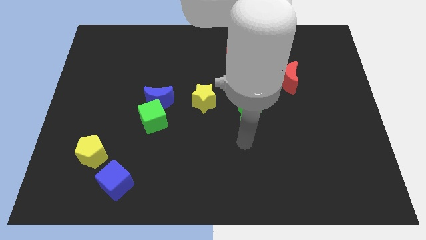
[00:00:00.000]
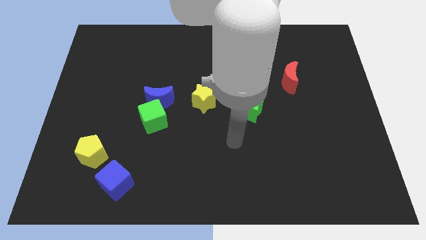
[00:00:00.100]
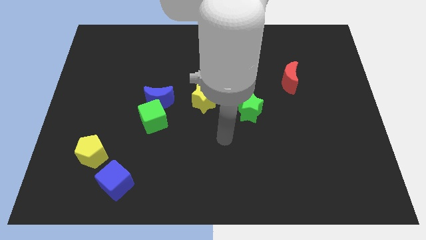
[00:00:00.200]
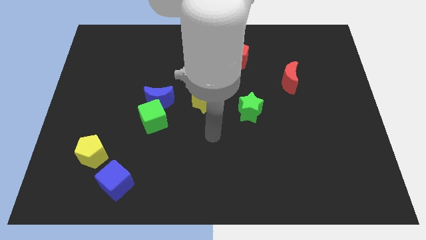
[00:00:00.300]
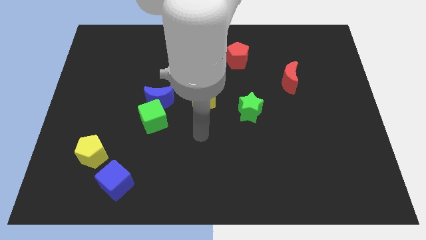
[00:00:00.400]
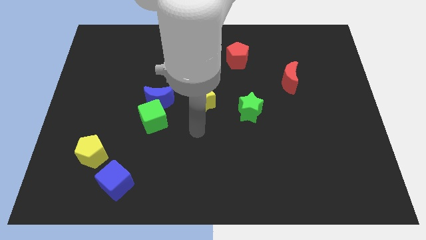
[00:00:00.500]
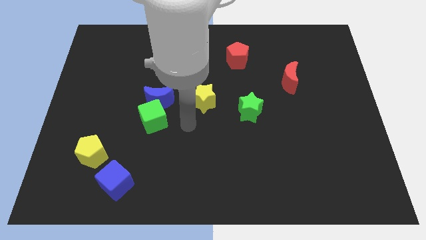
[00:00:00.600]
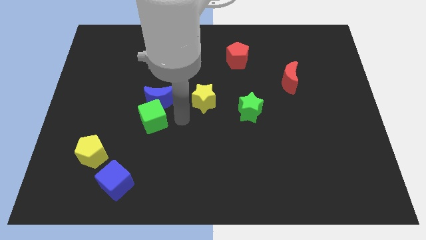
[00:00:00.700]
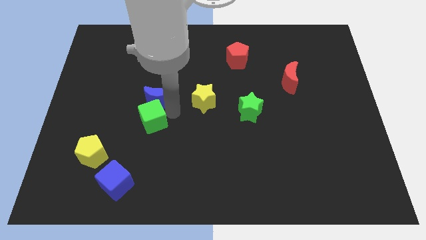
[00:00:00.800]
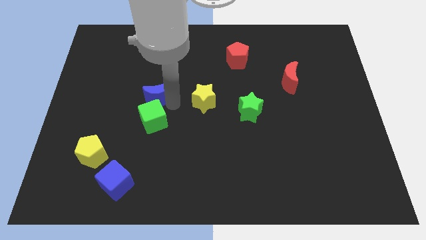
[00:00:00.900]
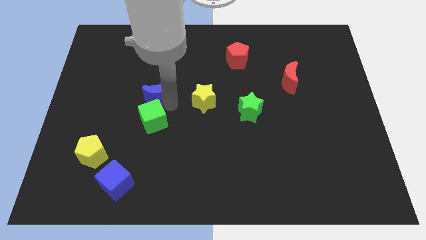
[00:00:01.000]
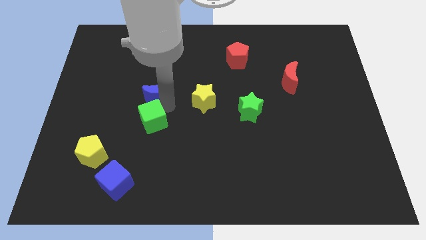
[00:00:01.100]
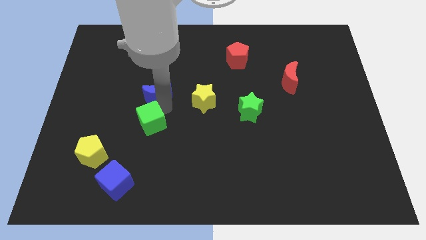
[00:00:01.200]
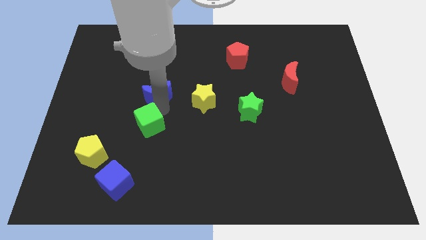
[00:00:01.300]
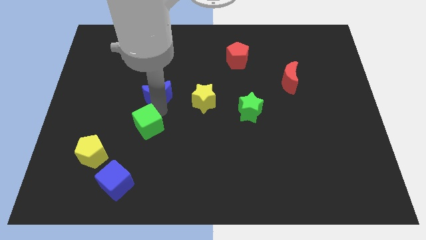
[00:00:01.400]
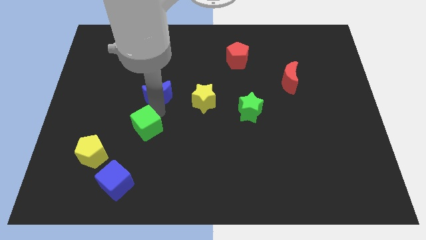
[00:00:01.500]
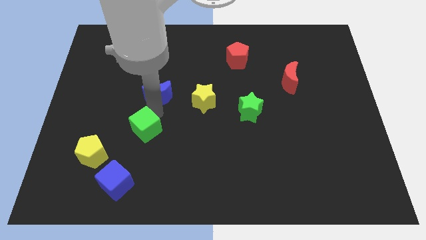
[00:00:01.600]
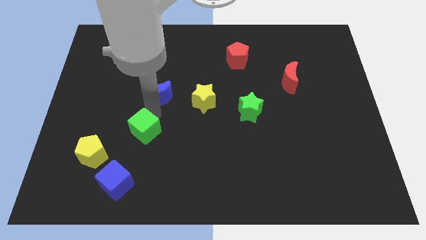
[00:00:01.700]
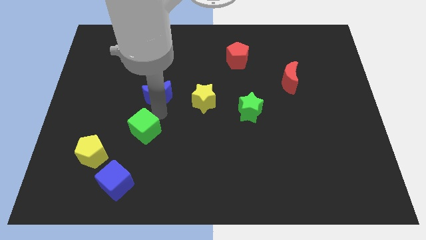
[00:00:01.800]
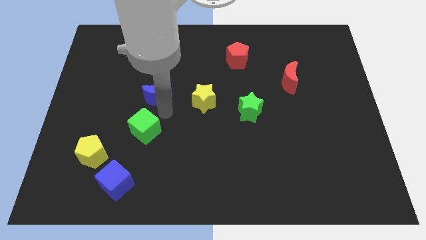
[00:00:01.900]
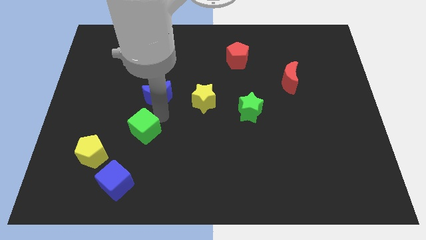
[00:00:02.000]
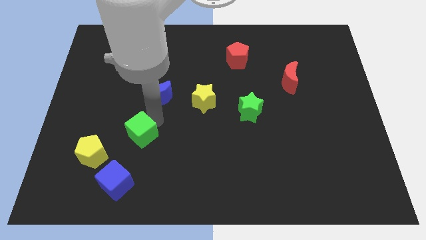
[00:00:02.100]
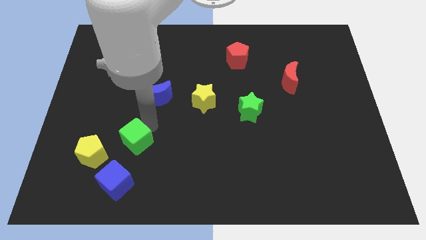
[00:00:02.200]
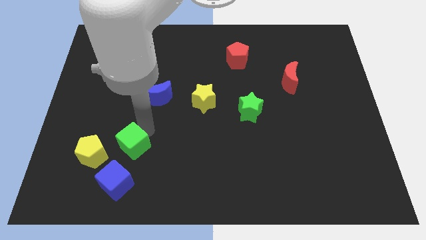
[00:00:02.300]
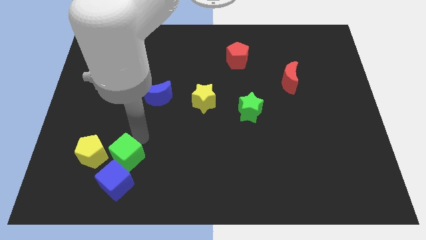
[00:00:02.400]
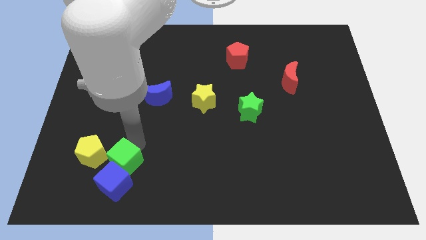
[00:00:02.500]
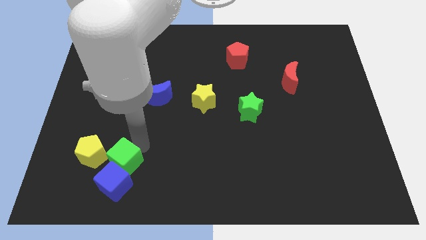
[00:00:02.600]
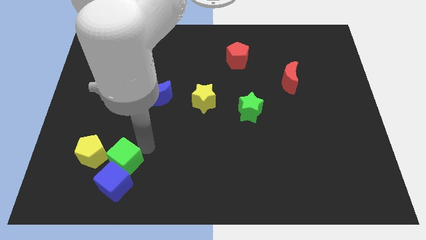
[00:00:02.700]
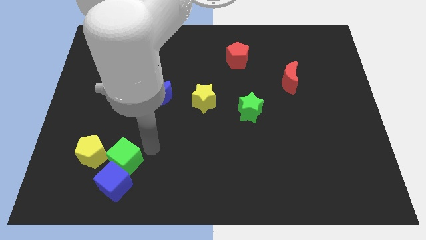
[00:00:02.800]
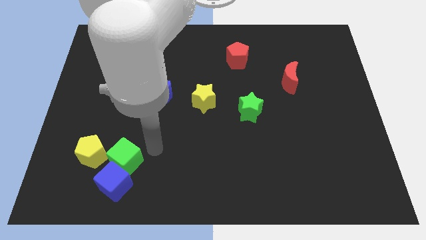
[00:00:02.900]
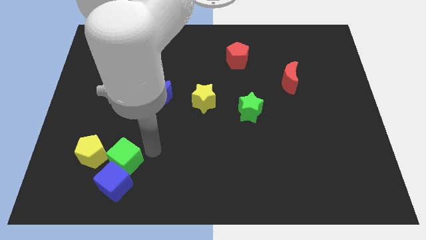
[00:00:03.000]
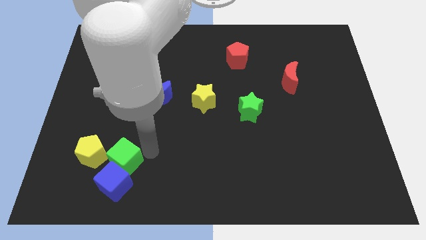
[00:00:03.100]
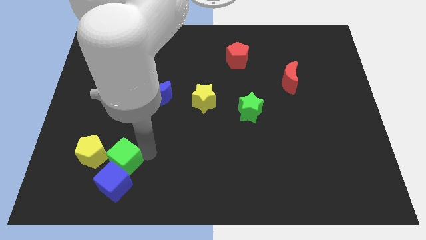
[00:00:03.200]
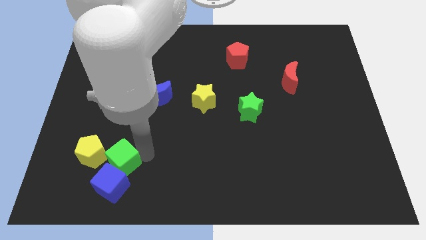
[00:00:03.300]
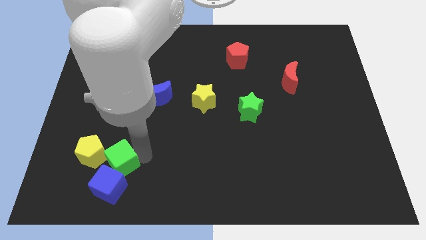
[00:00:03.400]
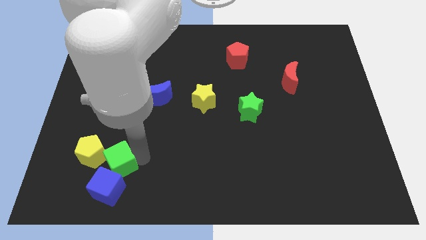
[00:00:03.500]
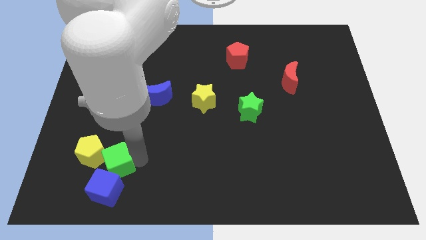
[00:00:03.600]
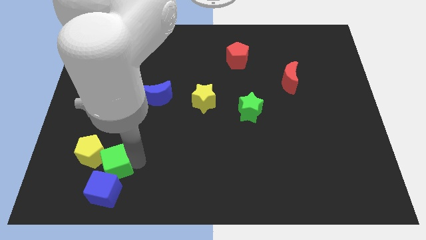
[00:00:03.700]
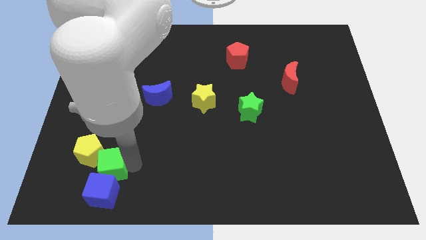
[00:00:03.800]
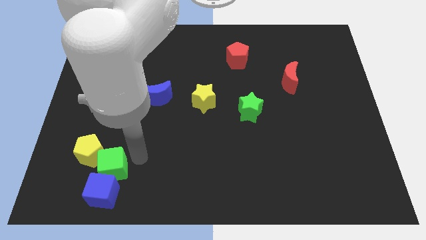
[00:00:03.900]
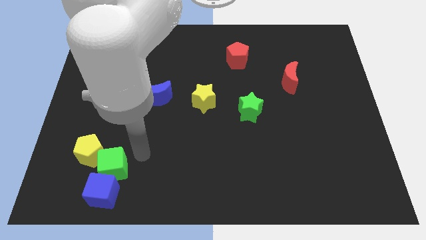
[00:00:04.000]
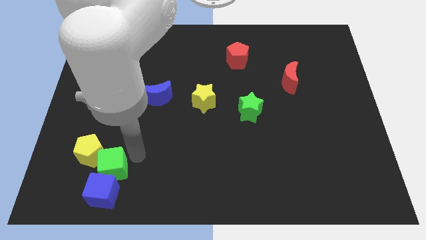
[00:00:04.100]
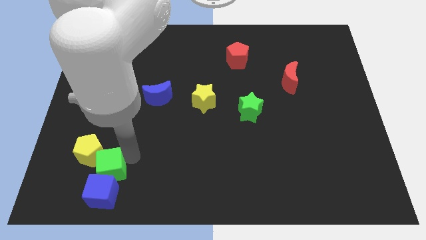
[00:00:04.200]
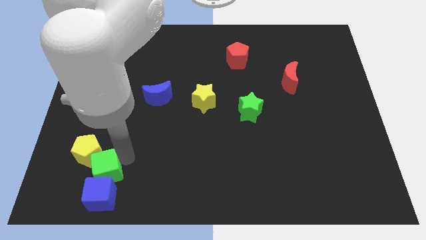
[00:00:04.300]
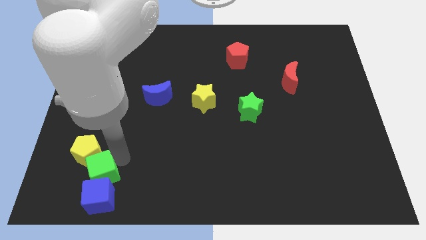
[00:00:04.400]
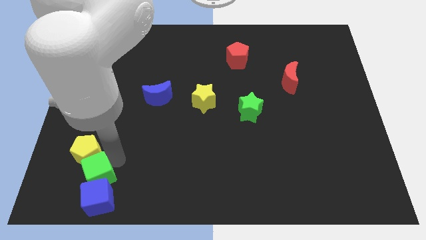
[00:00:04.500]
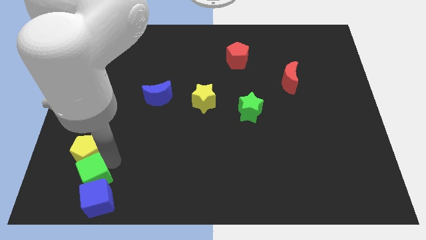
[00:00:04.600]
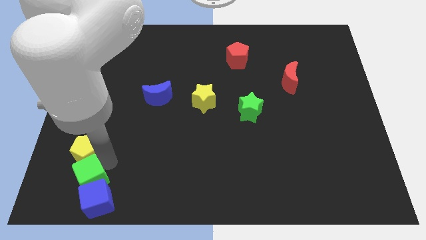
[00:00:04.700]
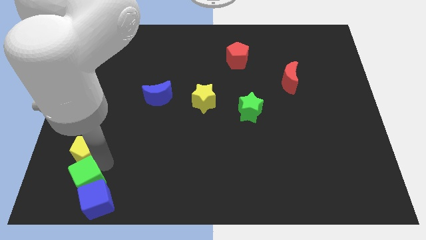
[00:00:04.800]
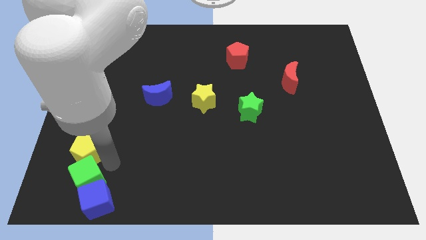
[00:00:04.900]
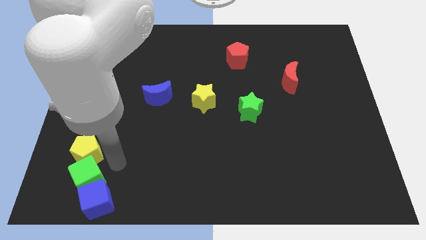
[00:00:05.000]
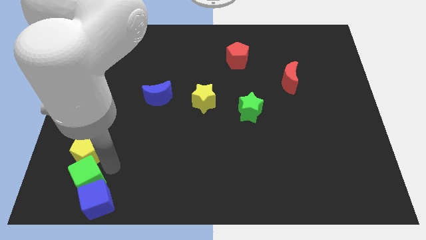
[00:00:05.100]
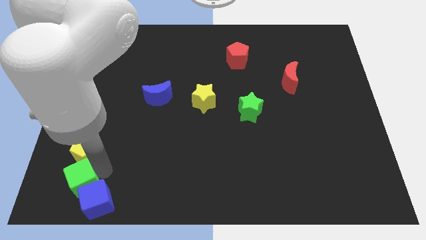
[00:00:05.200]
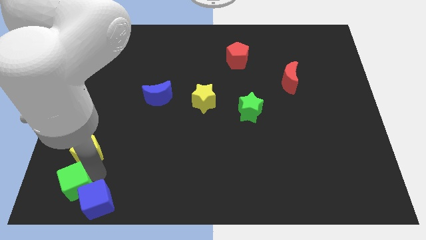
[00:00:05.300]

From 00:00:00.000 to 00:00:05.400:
push the green cube to the bottom left corner
